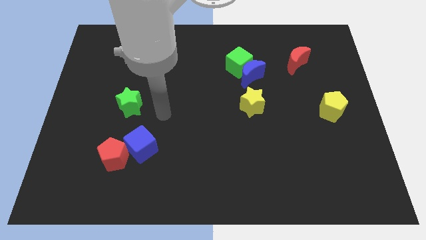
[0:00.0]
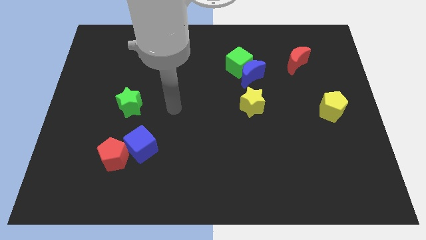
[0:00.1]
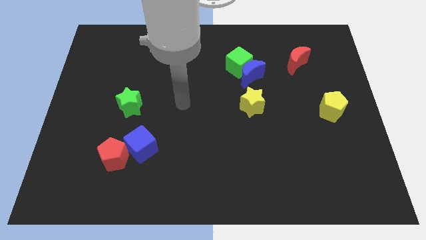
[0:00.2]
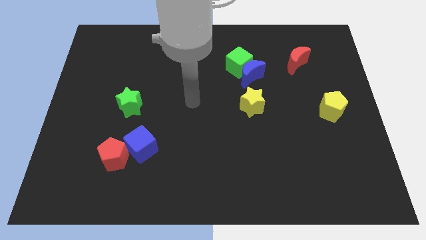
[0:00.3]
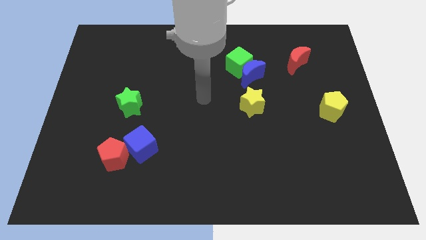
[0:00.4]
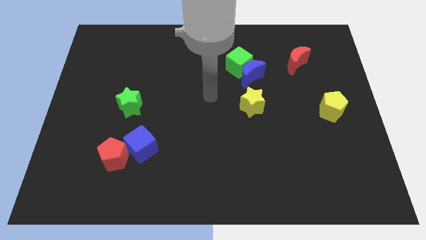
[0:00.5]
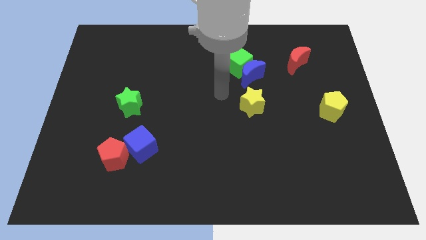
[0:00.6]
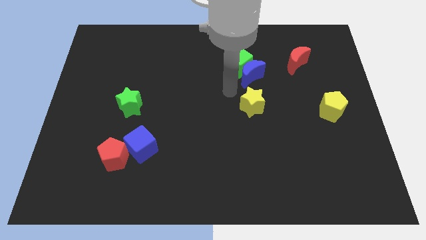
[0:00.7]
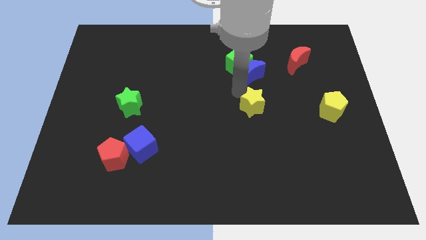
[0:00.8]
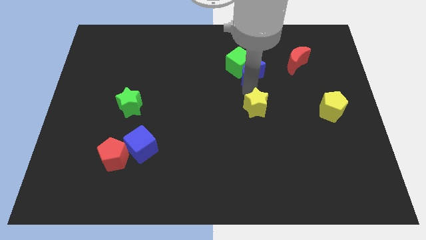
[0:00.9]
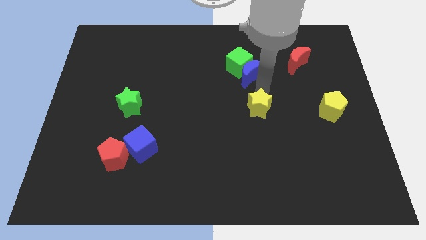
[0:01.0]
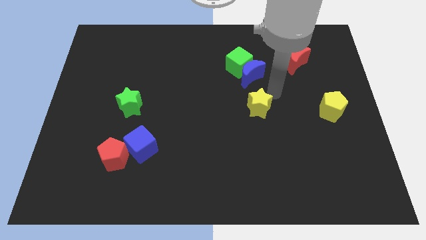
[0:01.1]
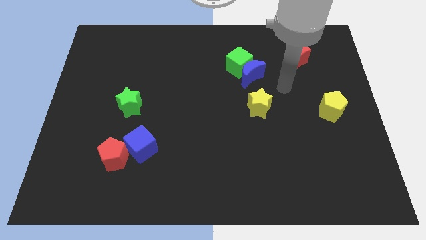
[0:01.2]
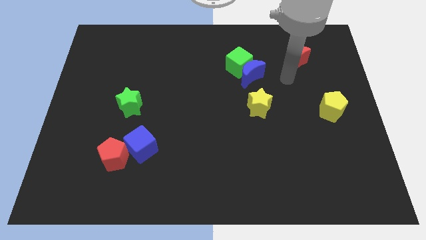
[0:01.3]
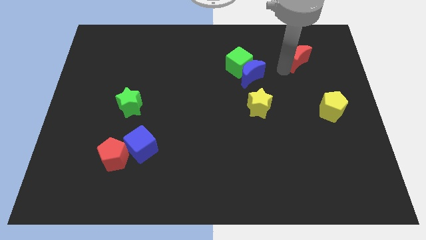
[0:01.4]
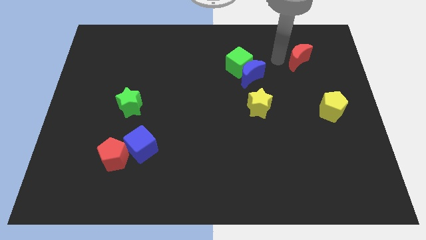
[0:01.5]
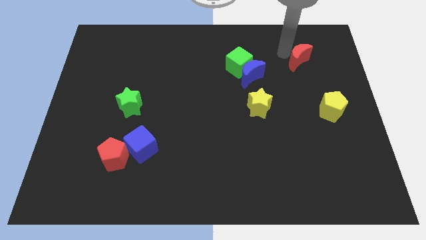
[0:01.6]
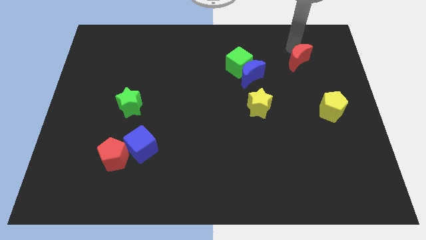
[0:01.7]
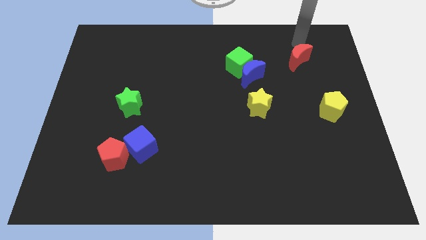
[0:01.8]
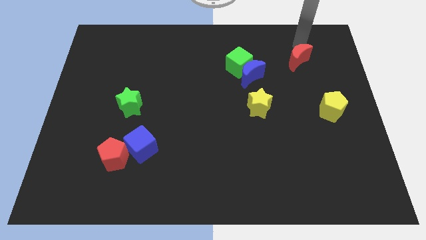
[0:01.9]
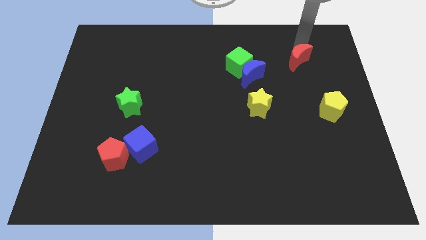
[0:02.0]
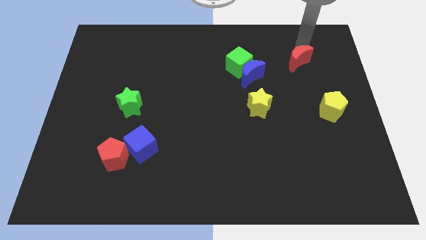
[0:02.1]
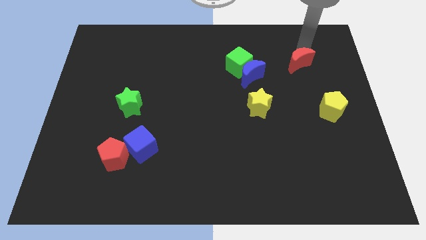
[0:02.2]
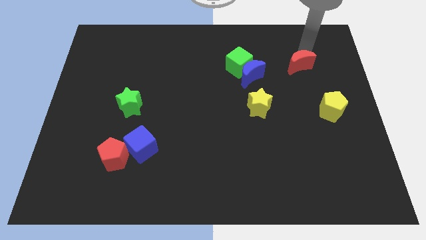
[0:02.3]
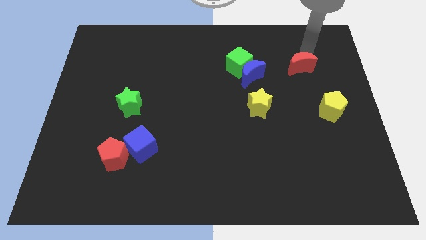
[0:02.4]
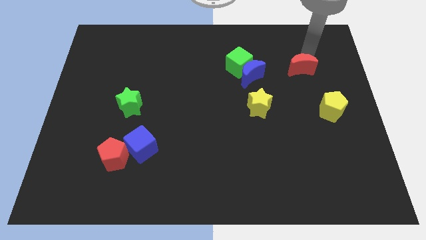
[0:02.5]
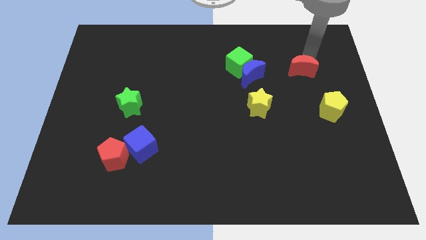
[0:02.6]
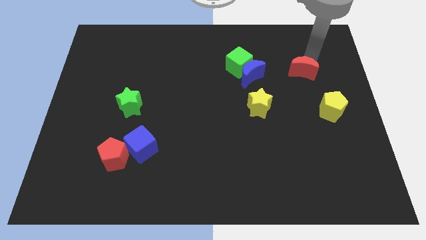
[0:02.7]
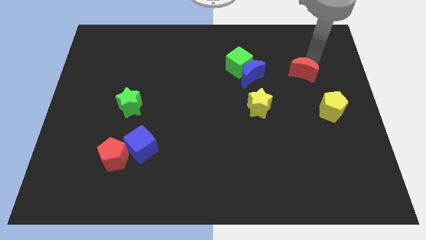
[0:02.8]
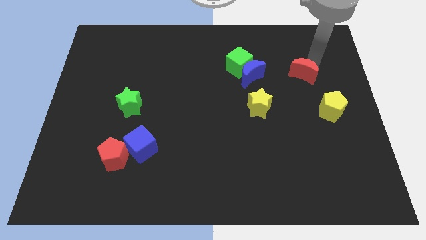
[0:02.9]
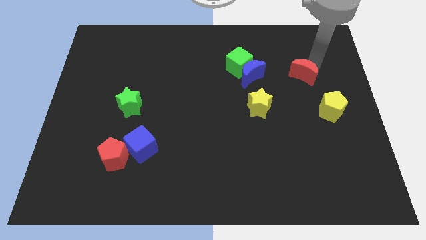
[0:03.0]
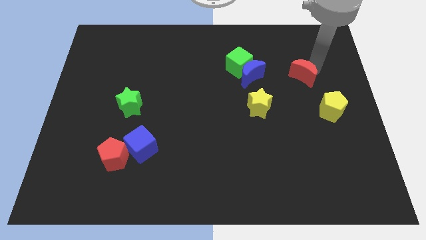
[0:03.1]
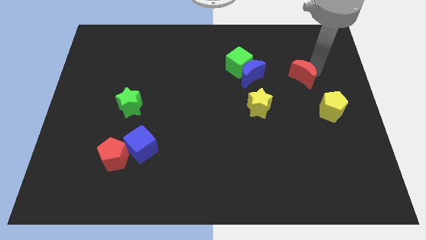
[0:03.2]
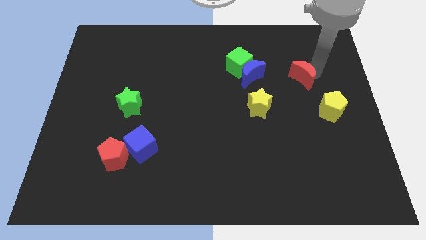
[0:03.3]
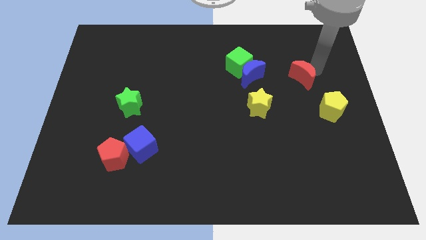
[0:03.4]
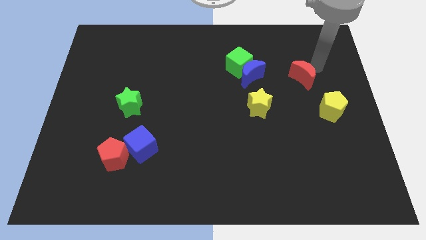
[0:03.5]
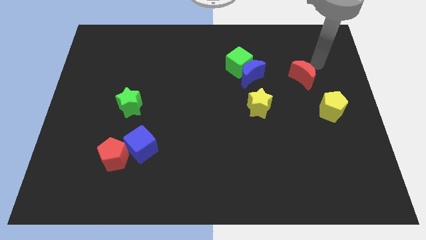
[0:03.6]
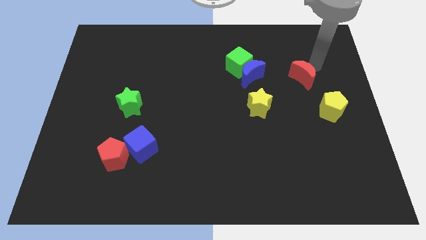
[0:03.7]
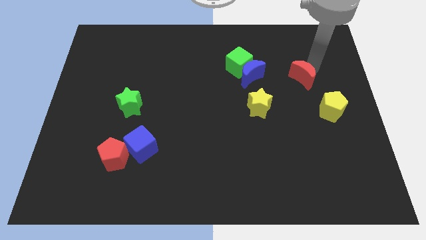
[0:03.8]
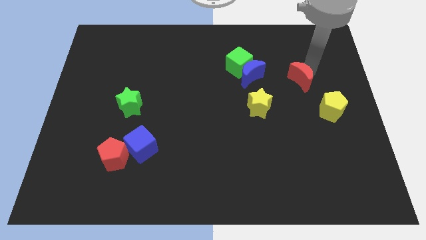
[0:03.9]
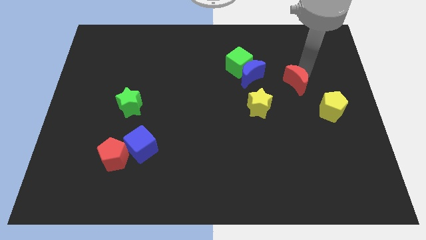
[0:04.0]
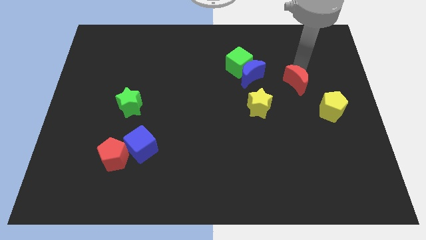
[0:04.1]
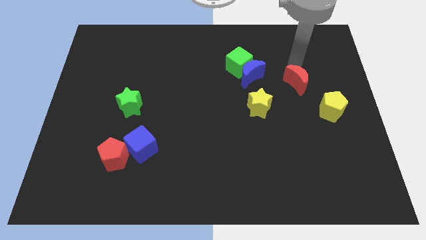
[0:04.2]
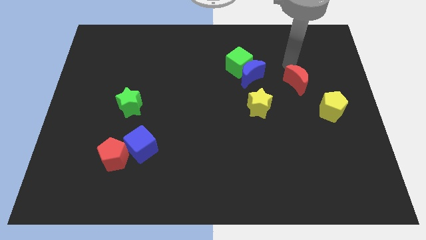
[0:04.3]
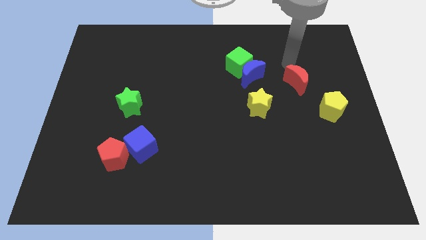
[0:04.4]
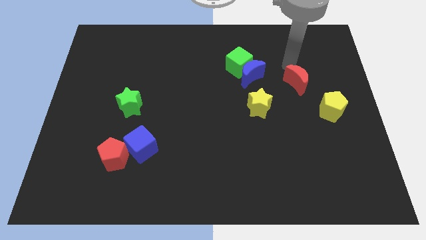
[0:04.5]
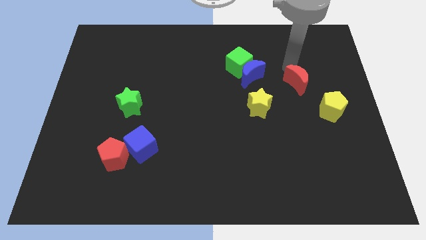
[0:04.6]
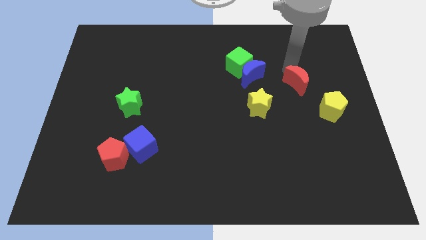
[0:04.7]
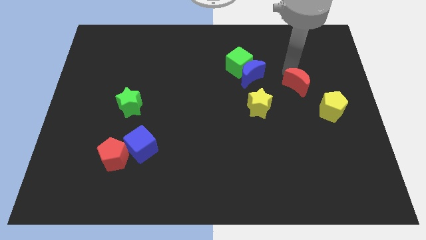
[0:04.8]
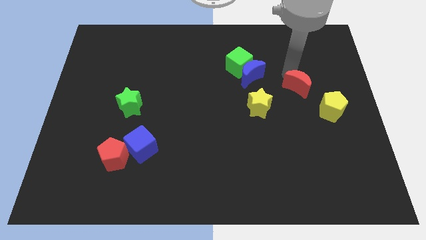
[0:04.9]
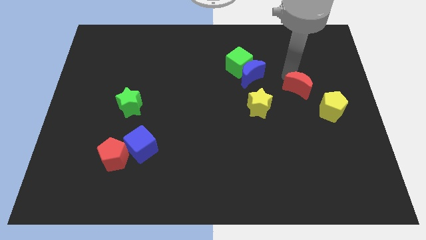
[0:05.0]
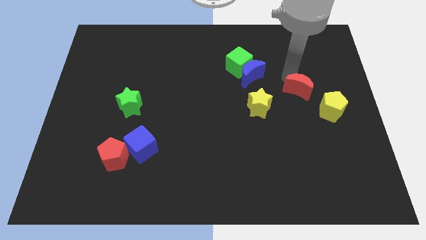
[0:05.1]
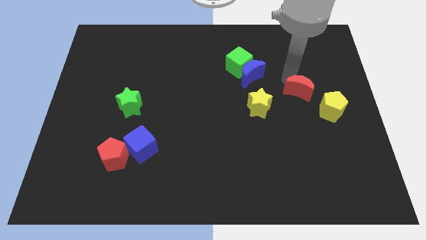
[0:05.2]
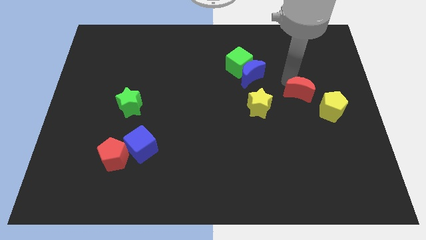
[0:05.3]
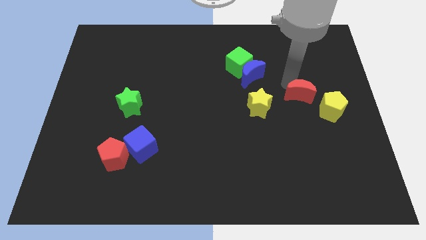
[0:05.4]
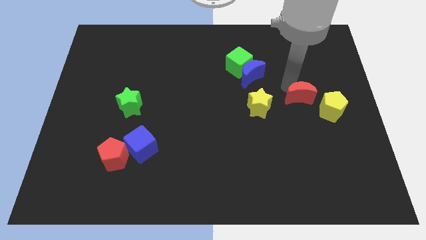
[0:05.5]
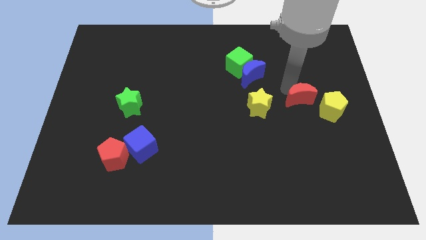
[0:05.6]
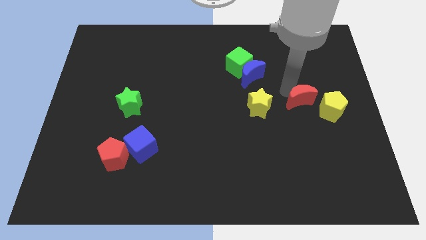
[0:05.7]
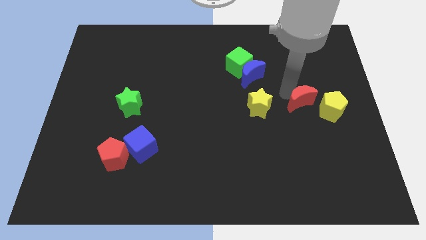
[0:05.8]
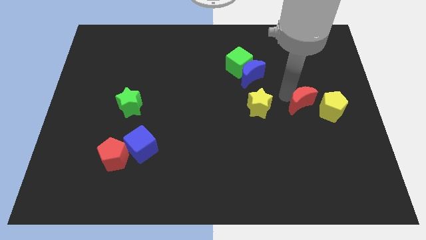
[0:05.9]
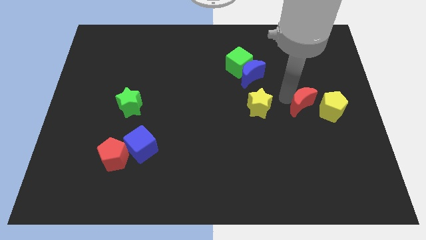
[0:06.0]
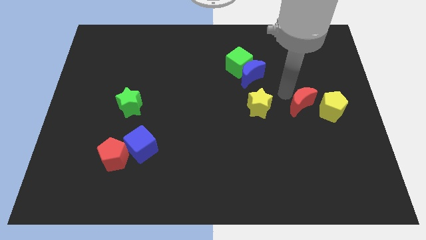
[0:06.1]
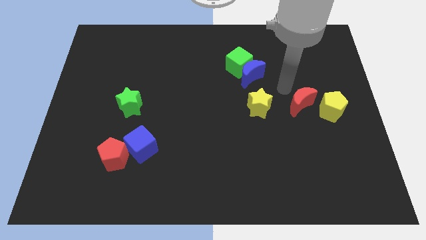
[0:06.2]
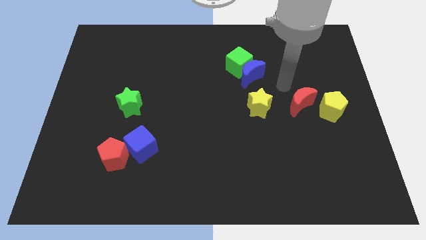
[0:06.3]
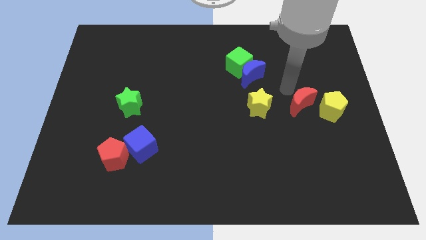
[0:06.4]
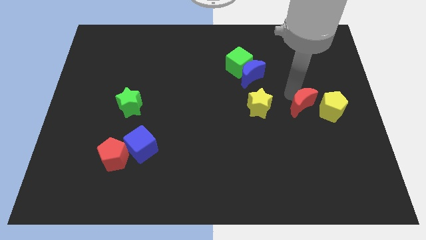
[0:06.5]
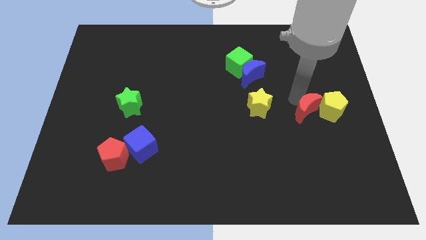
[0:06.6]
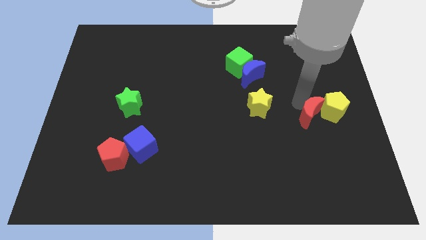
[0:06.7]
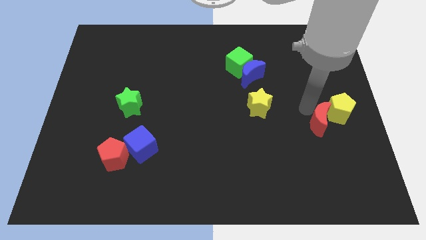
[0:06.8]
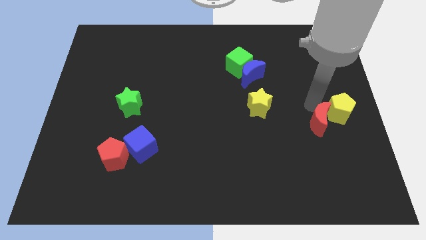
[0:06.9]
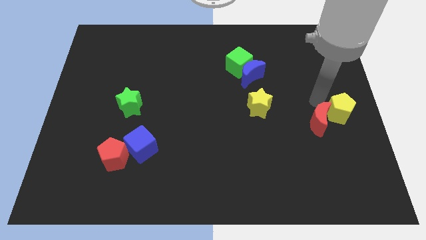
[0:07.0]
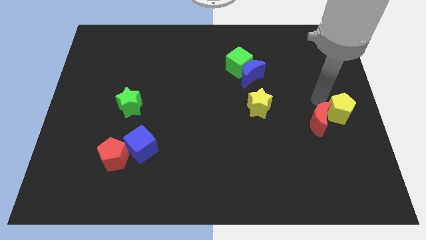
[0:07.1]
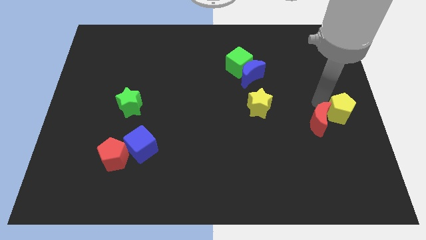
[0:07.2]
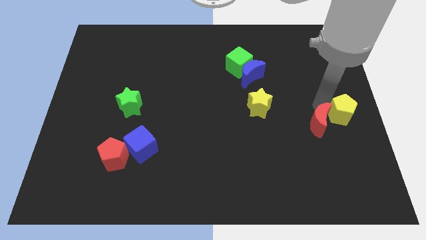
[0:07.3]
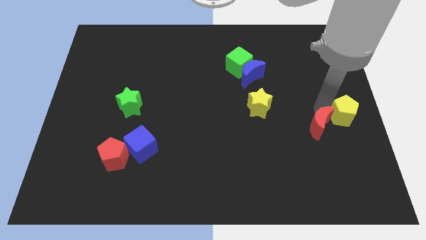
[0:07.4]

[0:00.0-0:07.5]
move the red moon down
